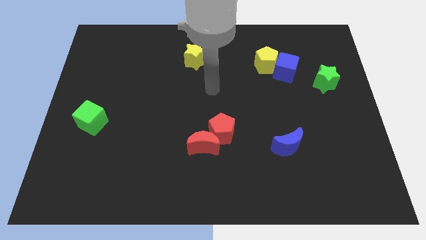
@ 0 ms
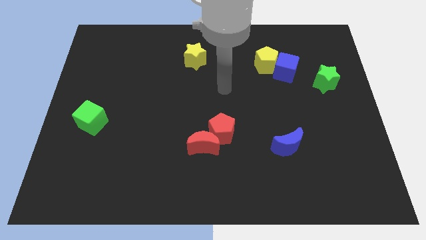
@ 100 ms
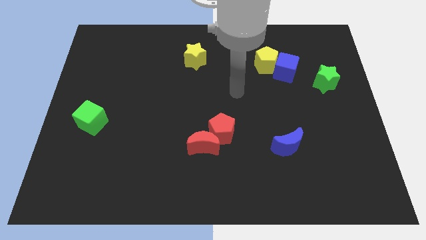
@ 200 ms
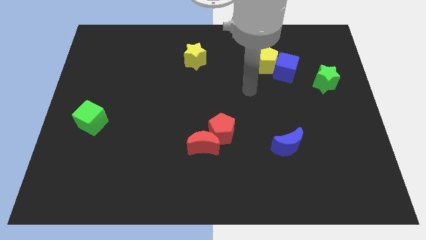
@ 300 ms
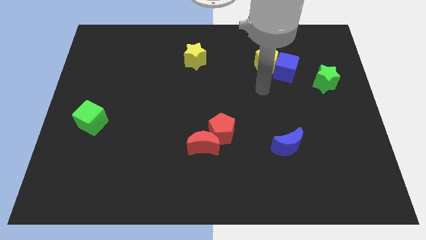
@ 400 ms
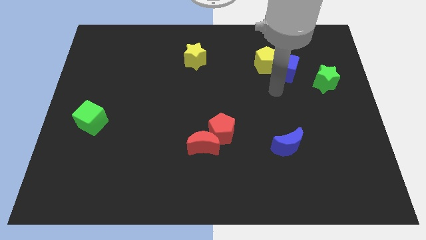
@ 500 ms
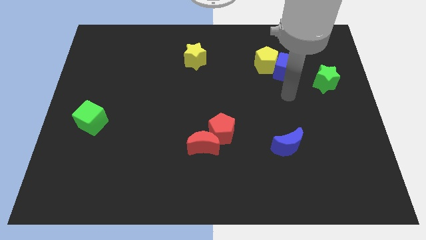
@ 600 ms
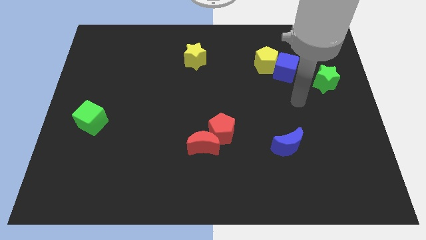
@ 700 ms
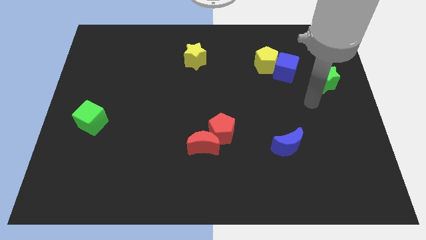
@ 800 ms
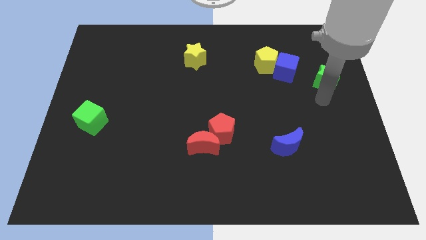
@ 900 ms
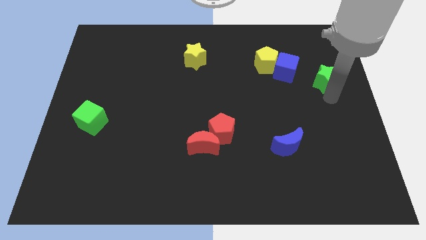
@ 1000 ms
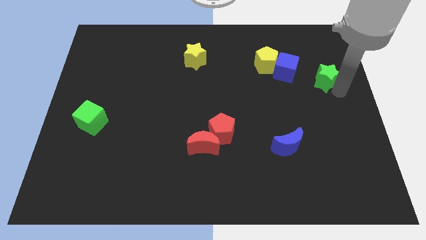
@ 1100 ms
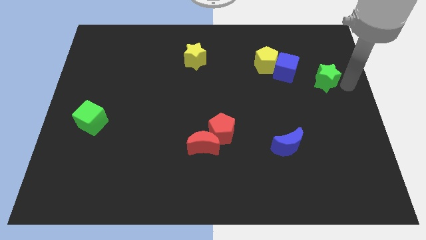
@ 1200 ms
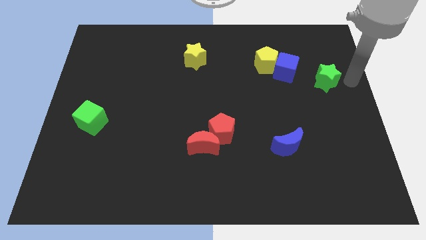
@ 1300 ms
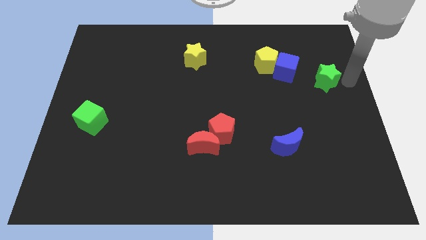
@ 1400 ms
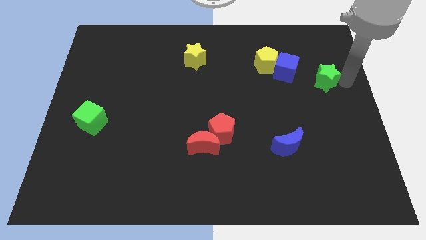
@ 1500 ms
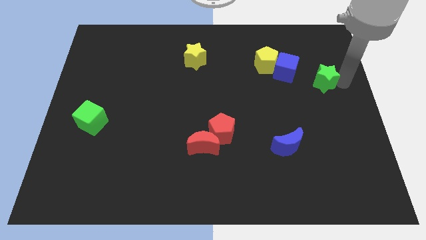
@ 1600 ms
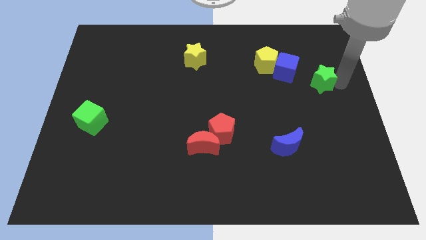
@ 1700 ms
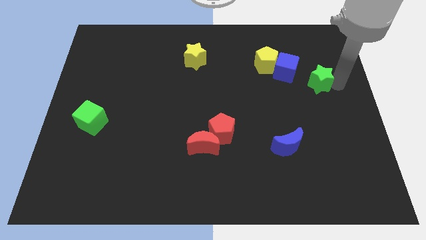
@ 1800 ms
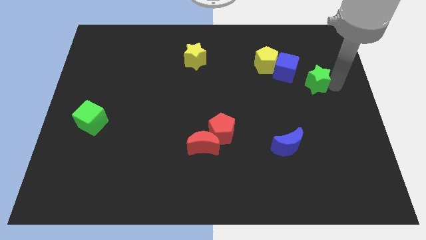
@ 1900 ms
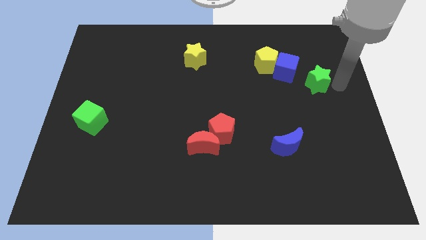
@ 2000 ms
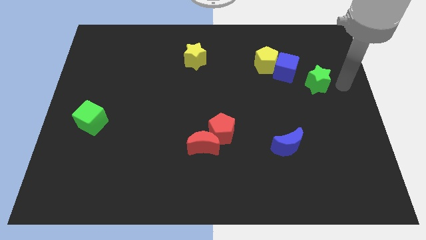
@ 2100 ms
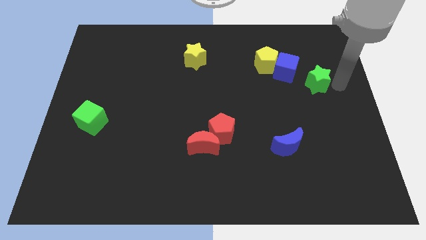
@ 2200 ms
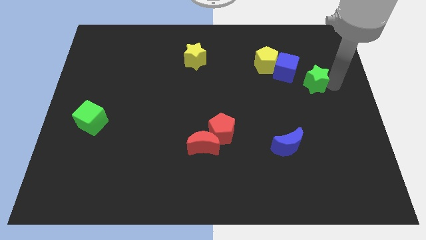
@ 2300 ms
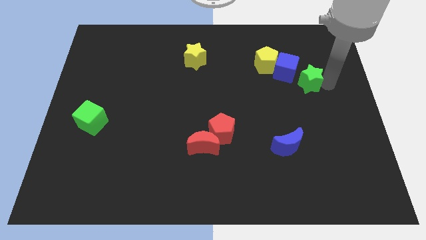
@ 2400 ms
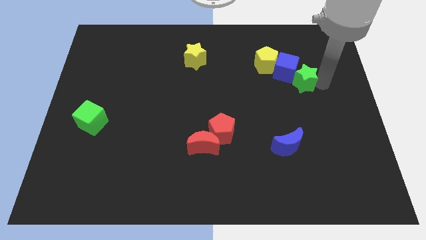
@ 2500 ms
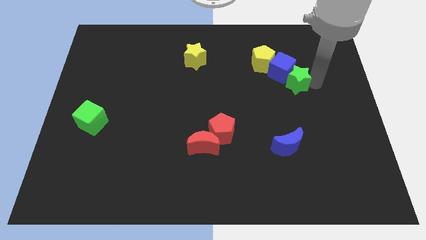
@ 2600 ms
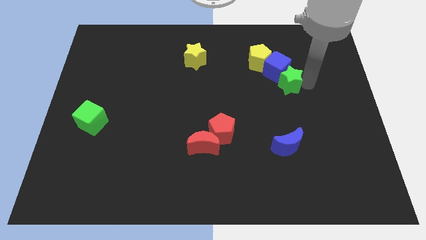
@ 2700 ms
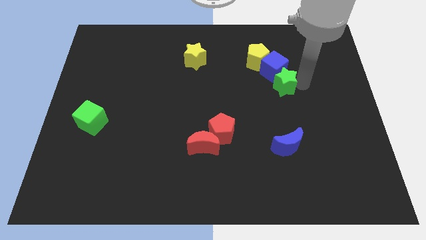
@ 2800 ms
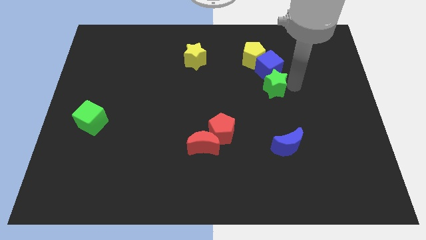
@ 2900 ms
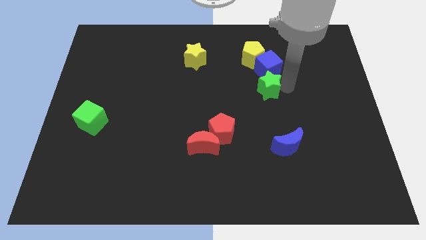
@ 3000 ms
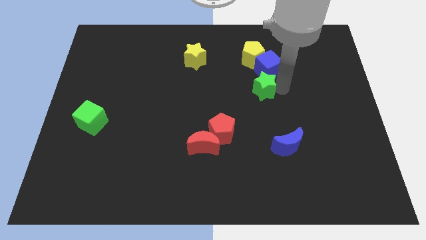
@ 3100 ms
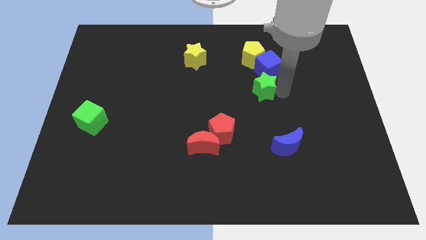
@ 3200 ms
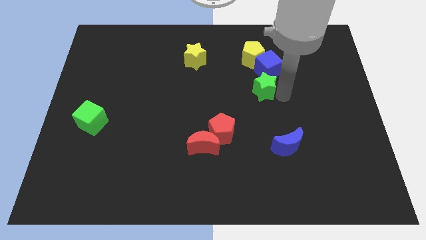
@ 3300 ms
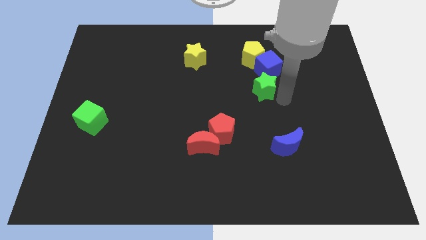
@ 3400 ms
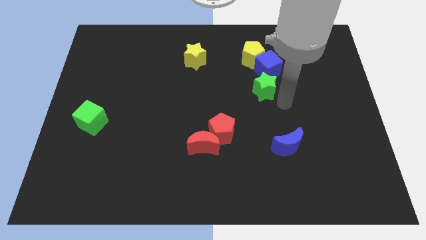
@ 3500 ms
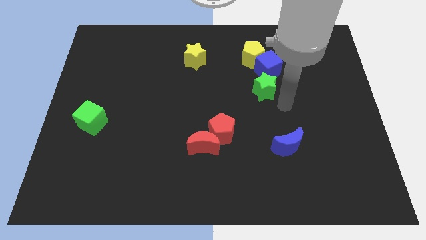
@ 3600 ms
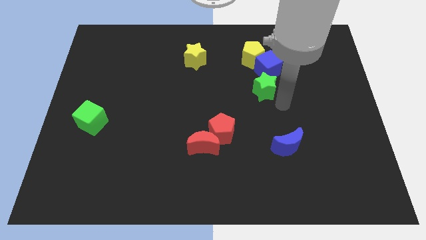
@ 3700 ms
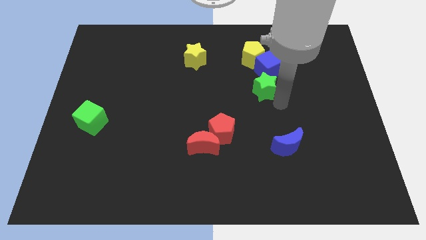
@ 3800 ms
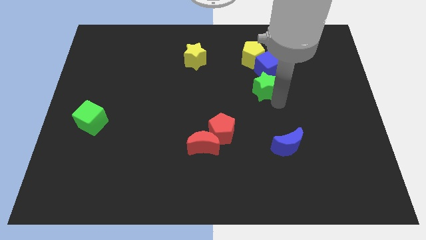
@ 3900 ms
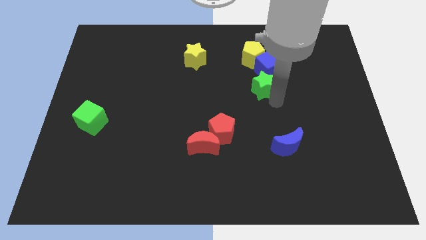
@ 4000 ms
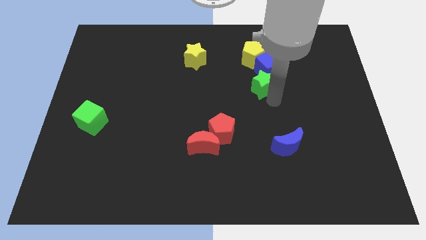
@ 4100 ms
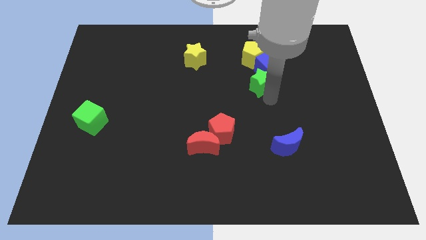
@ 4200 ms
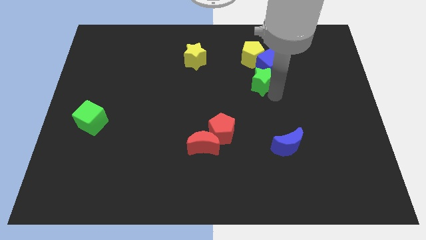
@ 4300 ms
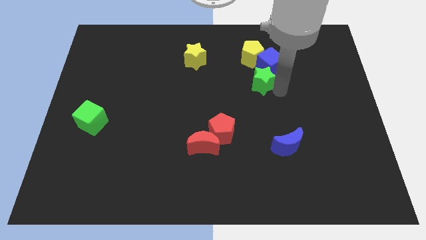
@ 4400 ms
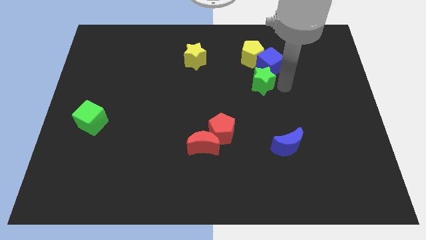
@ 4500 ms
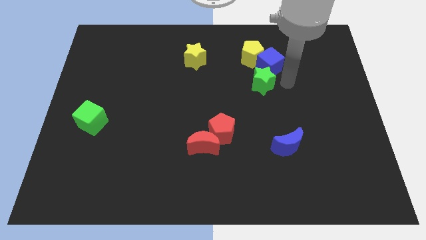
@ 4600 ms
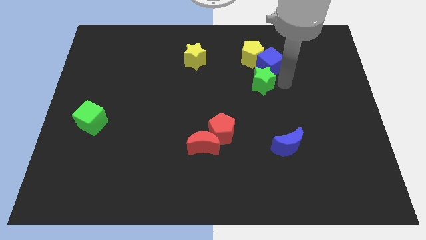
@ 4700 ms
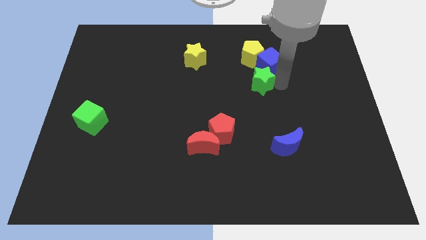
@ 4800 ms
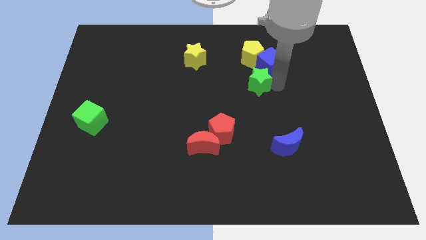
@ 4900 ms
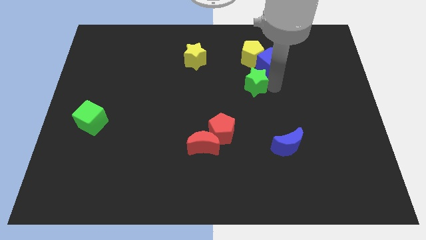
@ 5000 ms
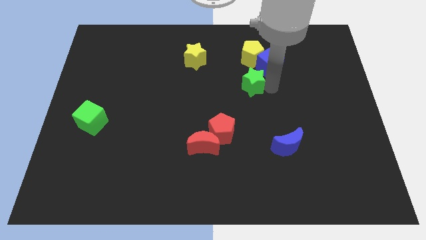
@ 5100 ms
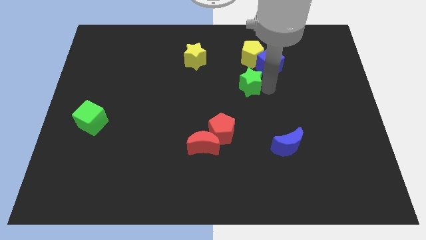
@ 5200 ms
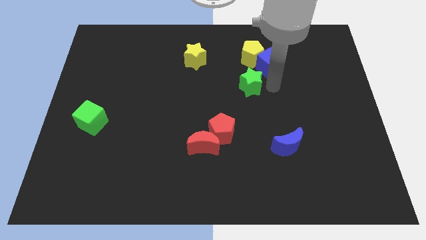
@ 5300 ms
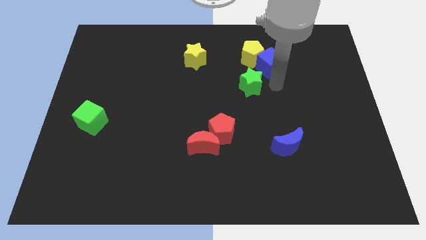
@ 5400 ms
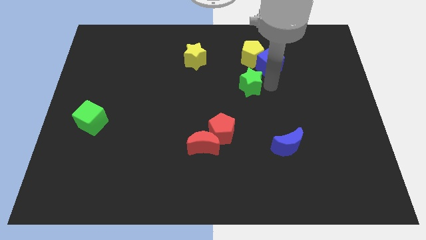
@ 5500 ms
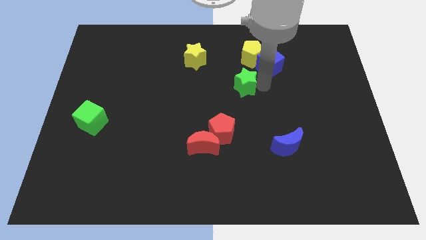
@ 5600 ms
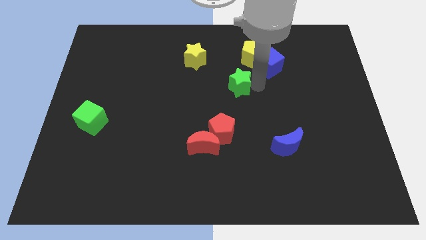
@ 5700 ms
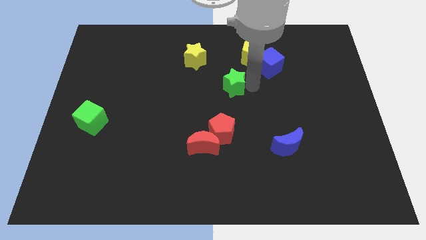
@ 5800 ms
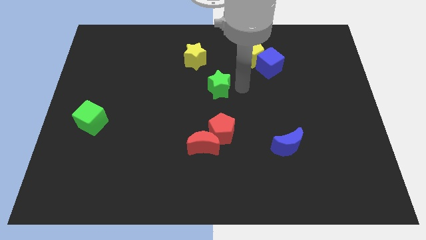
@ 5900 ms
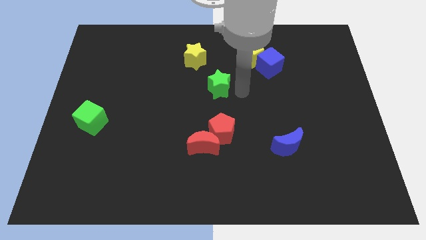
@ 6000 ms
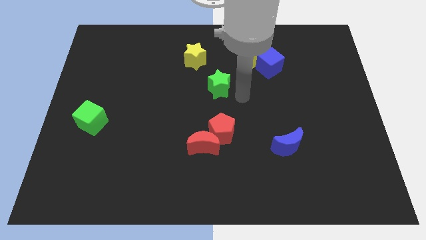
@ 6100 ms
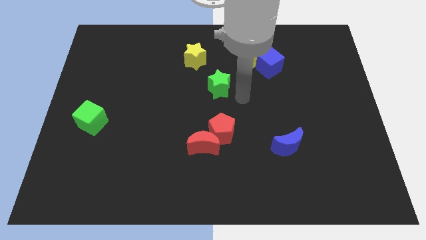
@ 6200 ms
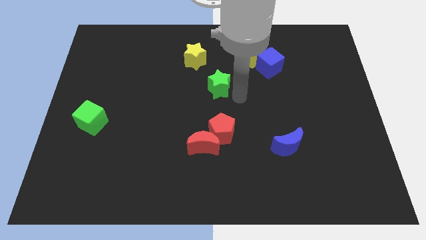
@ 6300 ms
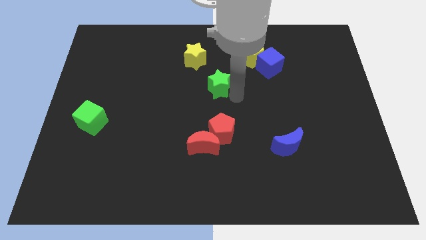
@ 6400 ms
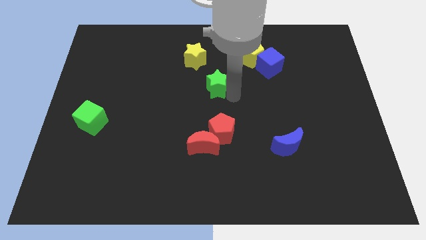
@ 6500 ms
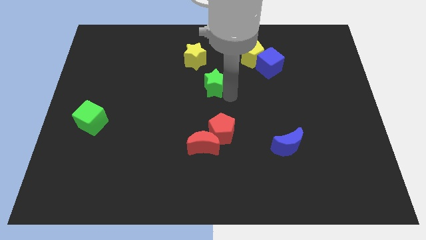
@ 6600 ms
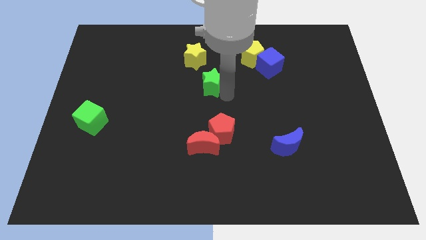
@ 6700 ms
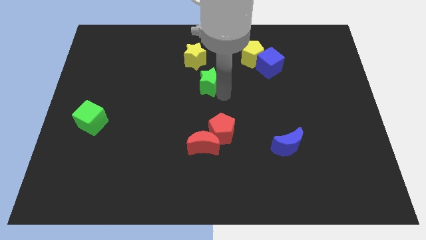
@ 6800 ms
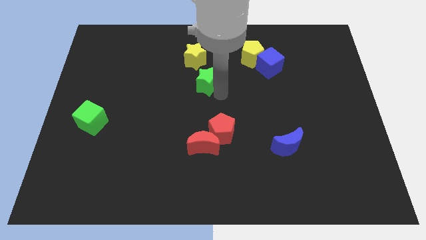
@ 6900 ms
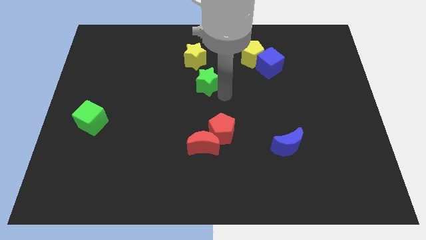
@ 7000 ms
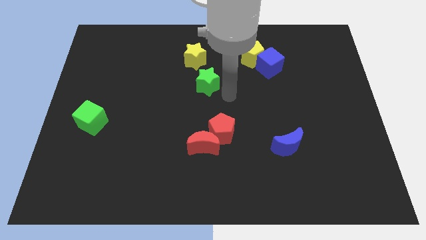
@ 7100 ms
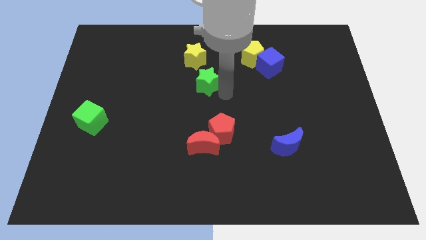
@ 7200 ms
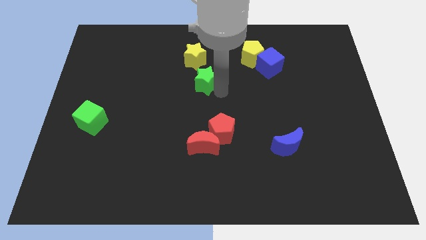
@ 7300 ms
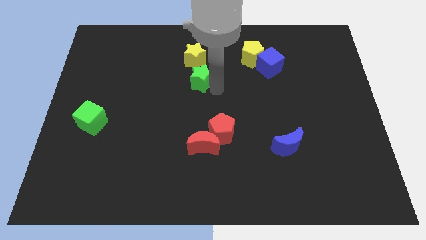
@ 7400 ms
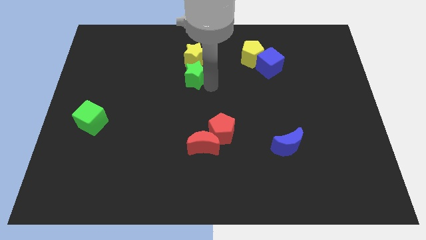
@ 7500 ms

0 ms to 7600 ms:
slide the green star diagonally down and to the left of the yellow star
